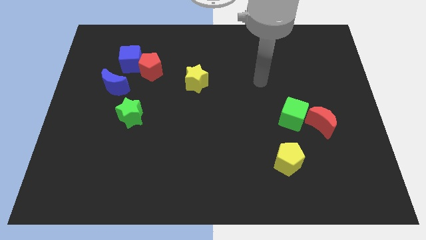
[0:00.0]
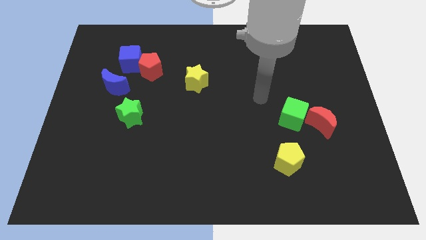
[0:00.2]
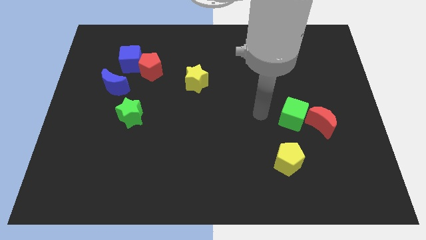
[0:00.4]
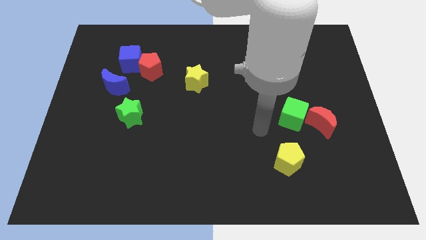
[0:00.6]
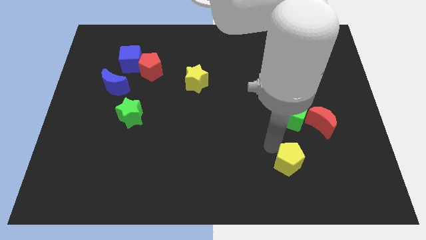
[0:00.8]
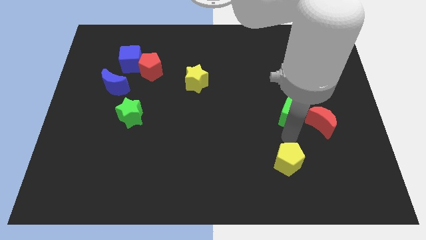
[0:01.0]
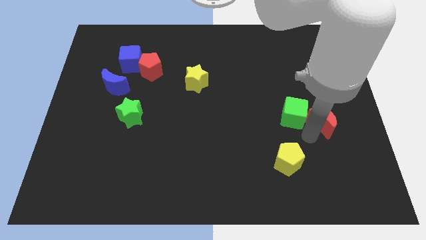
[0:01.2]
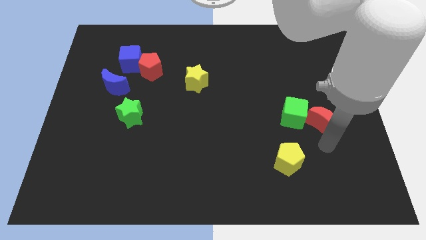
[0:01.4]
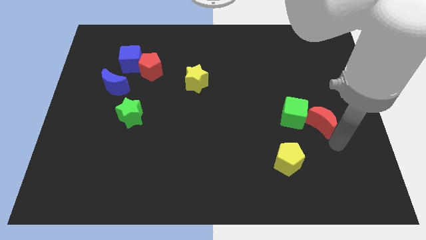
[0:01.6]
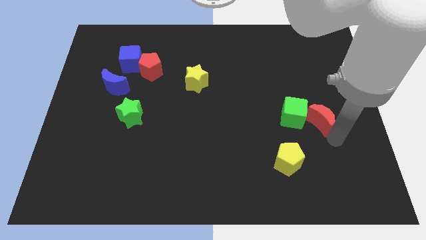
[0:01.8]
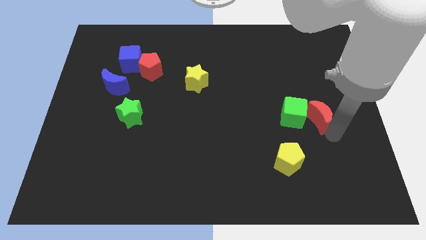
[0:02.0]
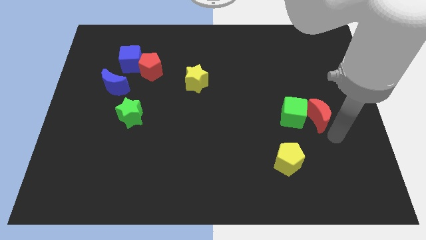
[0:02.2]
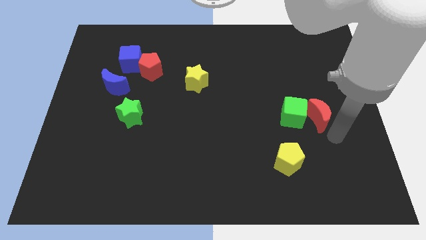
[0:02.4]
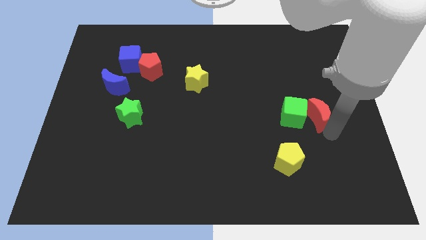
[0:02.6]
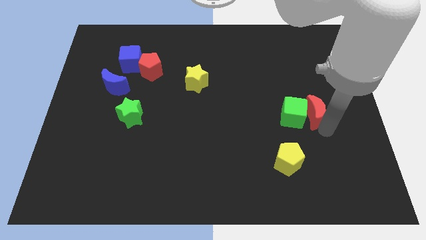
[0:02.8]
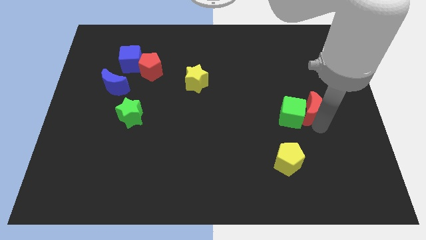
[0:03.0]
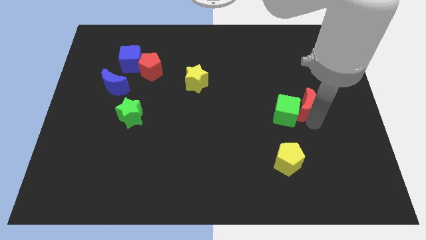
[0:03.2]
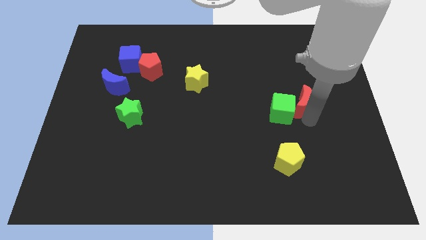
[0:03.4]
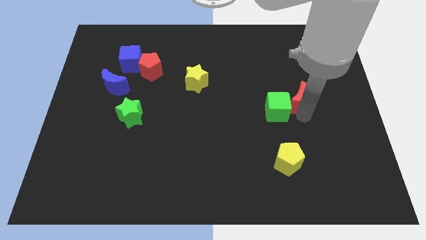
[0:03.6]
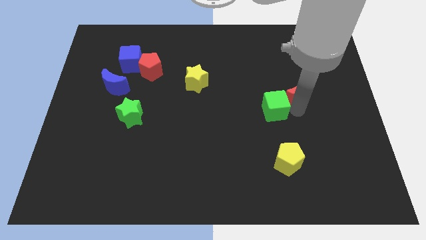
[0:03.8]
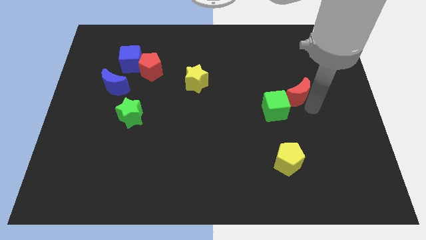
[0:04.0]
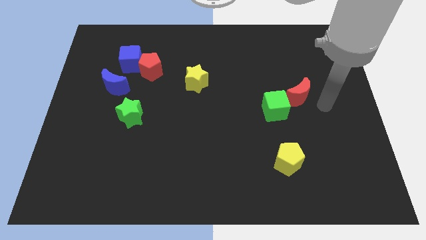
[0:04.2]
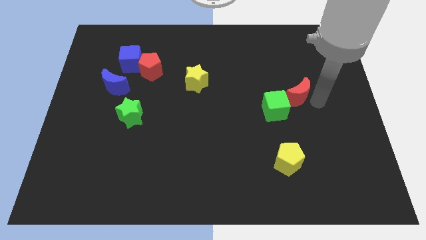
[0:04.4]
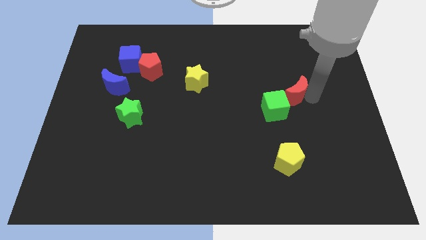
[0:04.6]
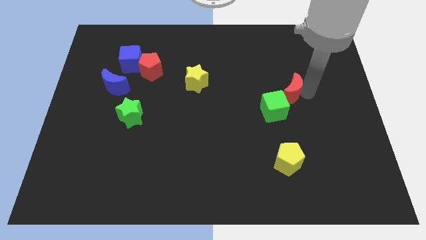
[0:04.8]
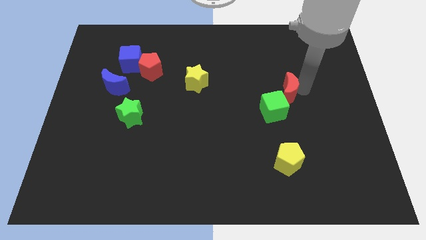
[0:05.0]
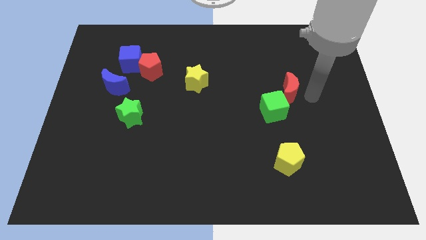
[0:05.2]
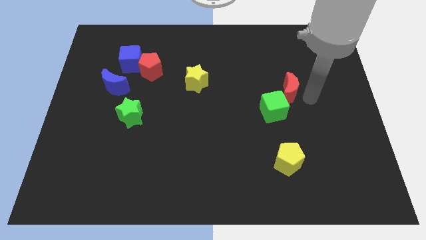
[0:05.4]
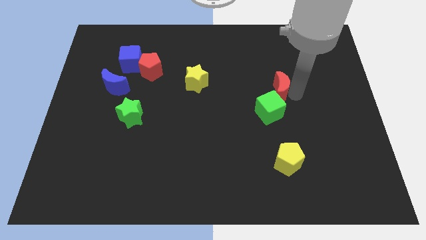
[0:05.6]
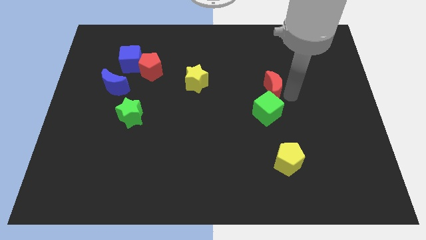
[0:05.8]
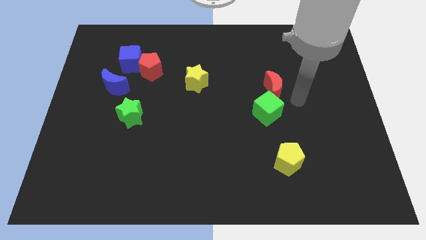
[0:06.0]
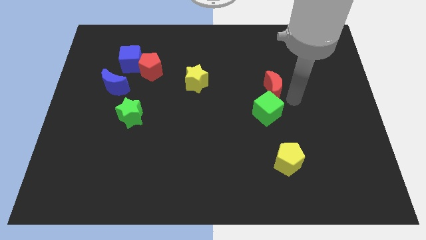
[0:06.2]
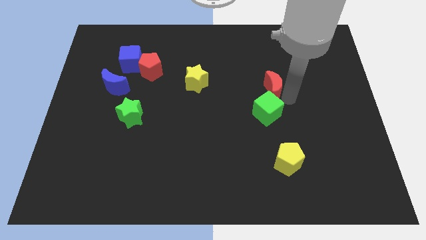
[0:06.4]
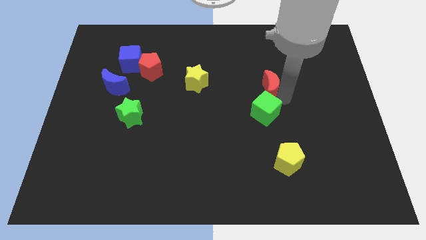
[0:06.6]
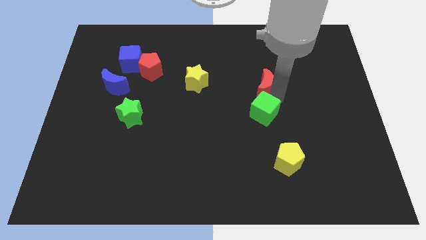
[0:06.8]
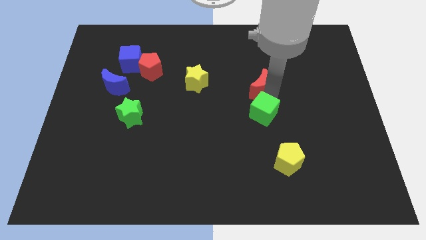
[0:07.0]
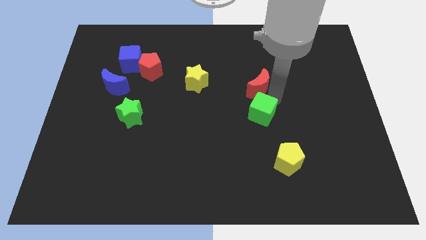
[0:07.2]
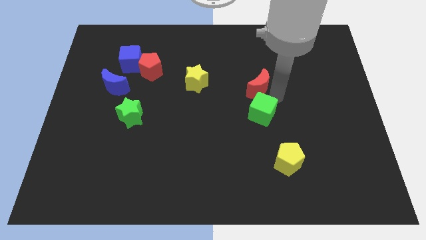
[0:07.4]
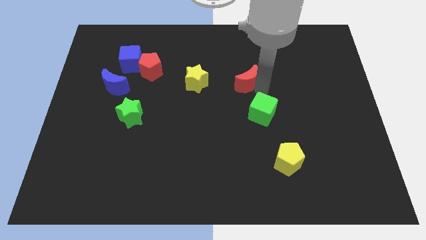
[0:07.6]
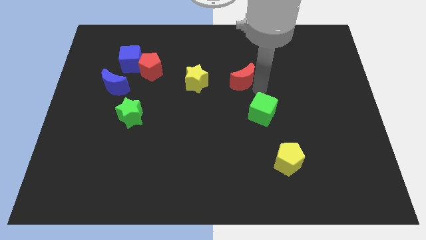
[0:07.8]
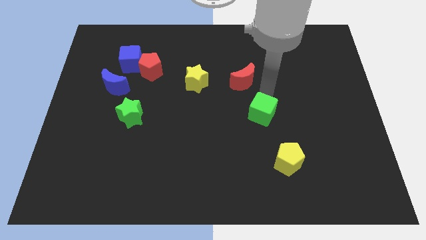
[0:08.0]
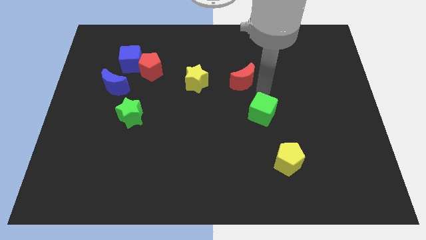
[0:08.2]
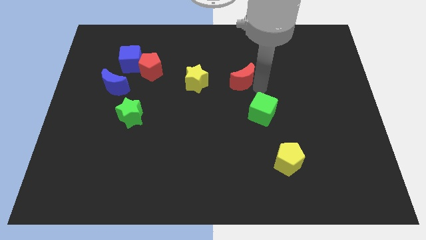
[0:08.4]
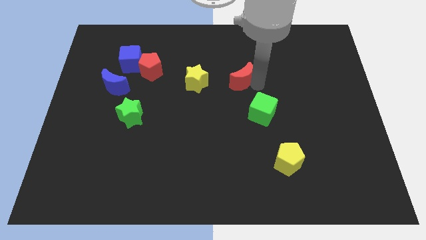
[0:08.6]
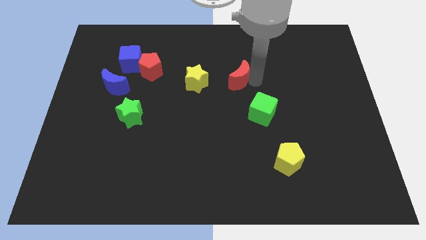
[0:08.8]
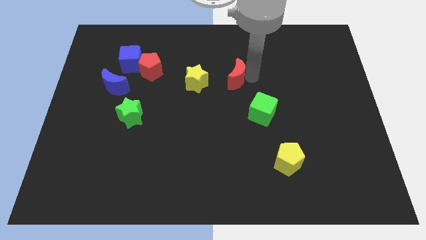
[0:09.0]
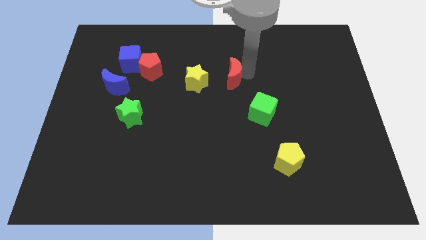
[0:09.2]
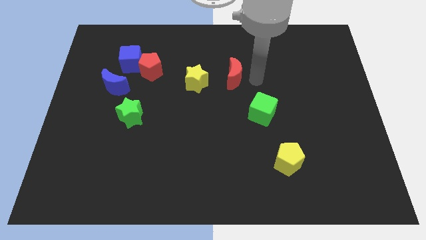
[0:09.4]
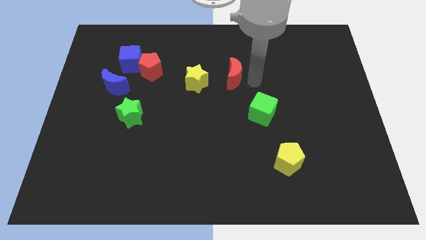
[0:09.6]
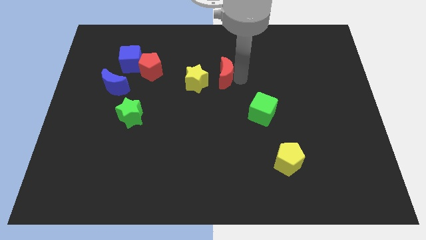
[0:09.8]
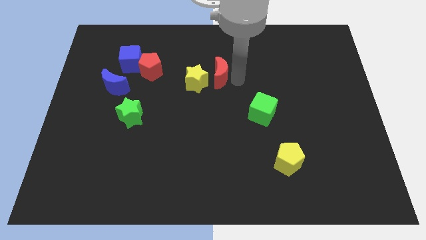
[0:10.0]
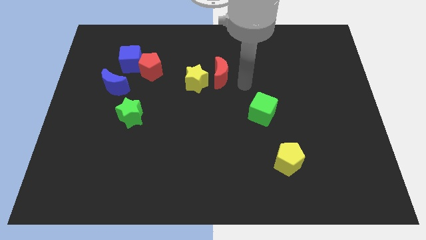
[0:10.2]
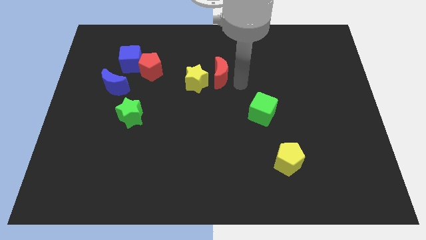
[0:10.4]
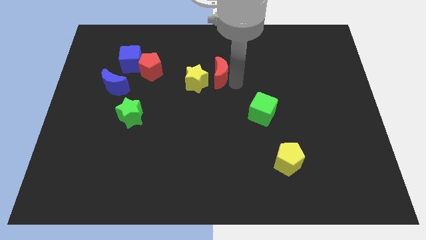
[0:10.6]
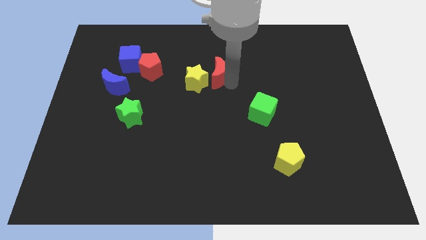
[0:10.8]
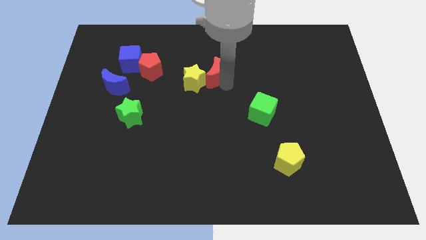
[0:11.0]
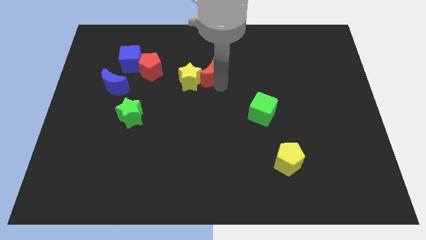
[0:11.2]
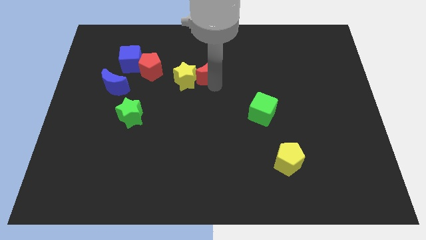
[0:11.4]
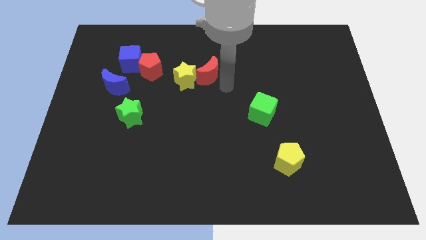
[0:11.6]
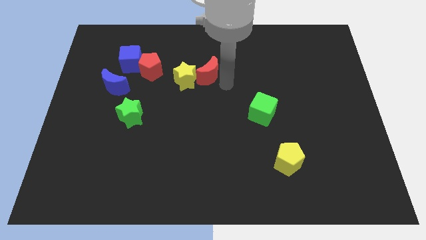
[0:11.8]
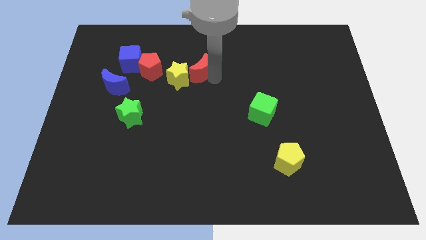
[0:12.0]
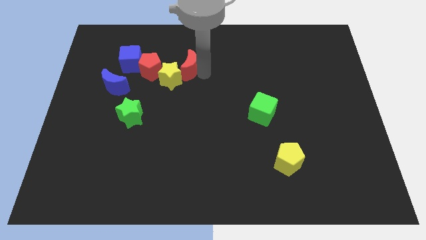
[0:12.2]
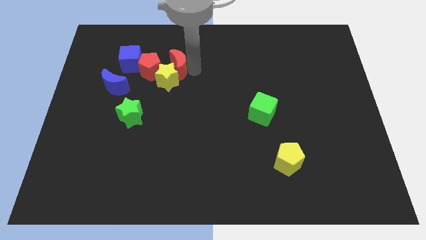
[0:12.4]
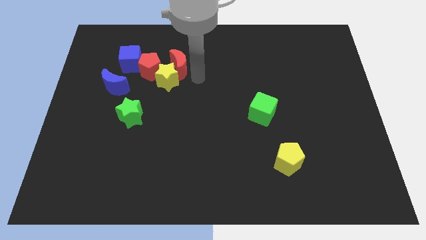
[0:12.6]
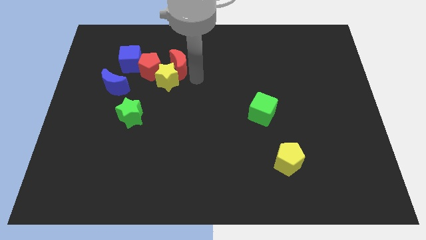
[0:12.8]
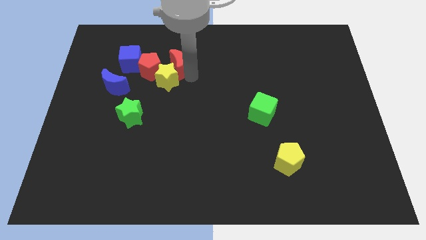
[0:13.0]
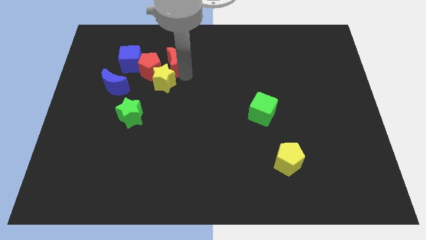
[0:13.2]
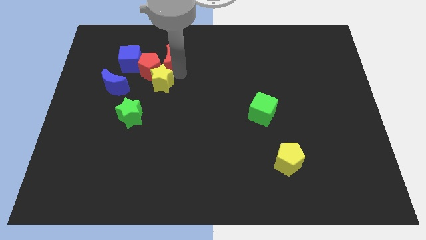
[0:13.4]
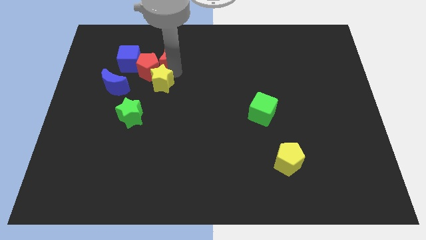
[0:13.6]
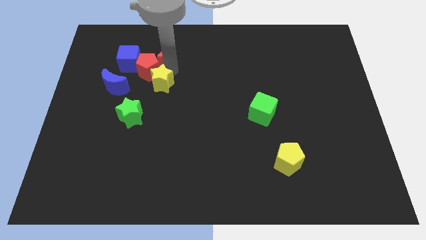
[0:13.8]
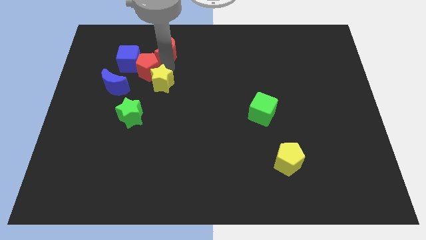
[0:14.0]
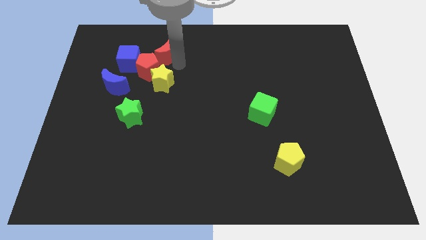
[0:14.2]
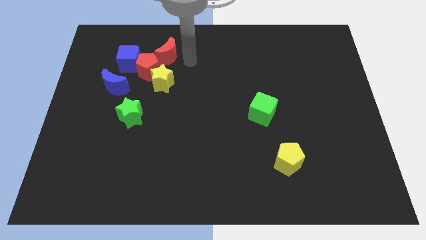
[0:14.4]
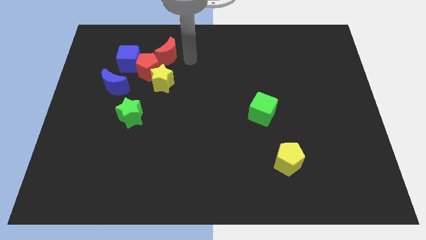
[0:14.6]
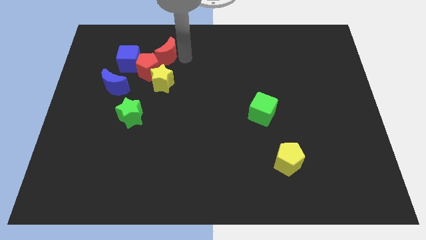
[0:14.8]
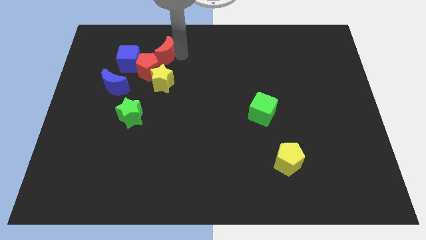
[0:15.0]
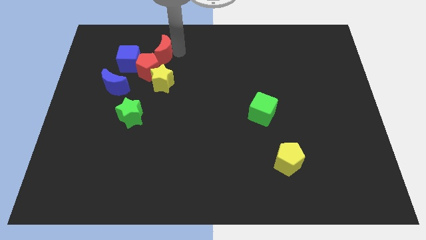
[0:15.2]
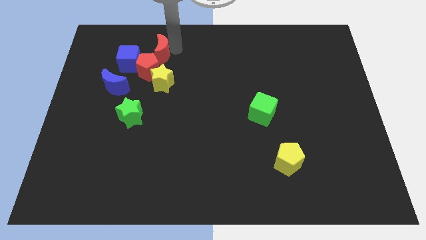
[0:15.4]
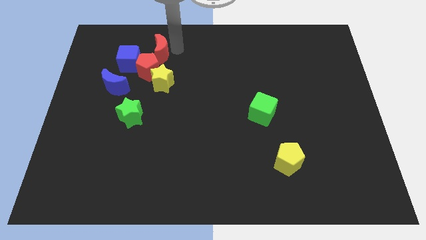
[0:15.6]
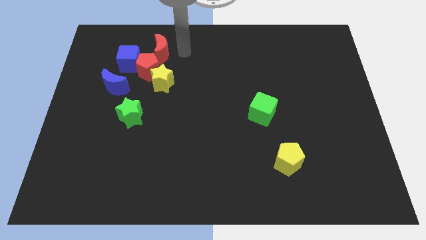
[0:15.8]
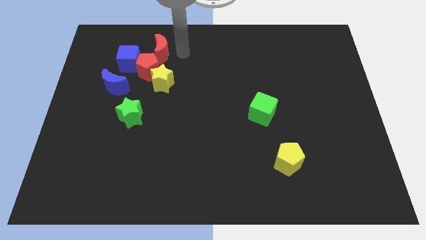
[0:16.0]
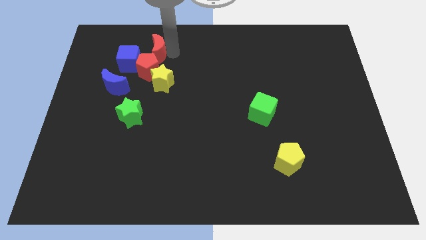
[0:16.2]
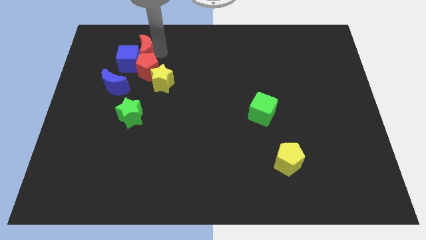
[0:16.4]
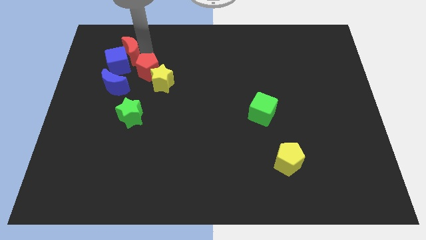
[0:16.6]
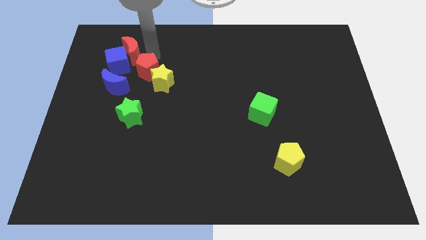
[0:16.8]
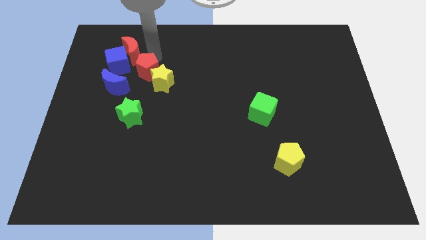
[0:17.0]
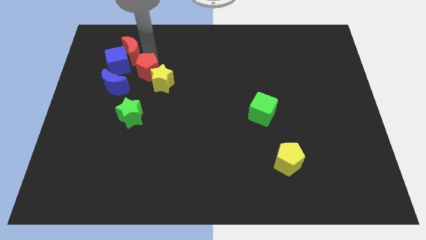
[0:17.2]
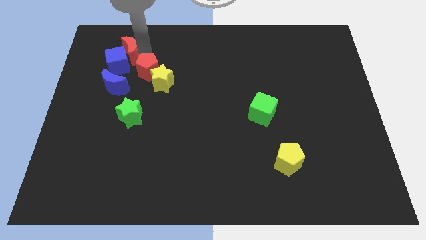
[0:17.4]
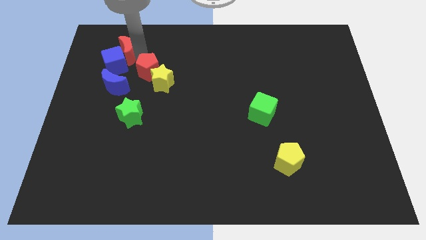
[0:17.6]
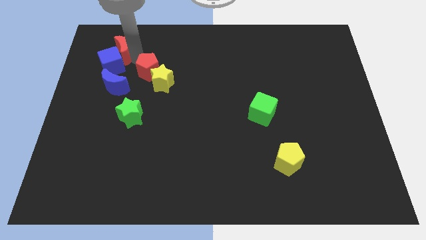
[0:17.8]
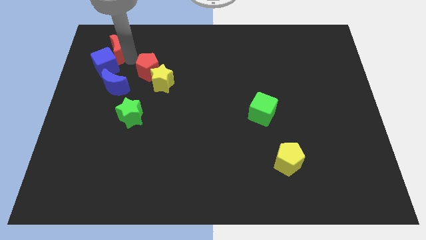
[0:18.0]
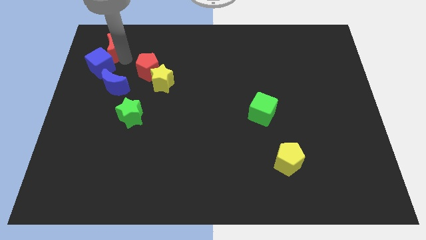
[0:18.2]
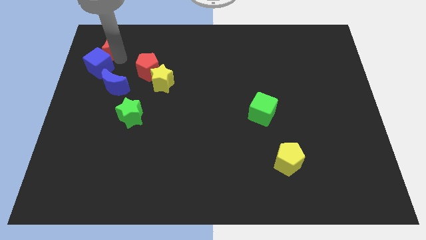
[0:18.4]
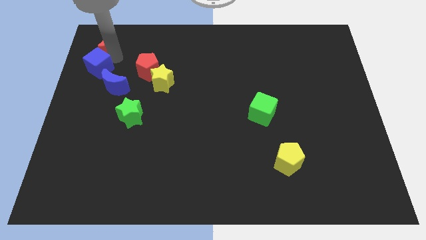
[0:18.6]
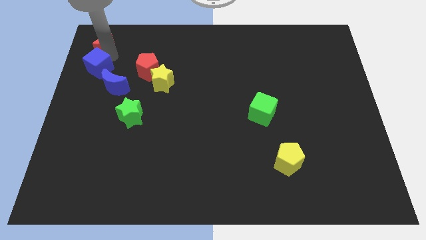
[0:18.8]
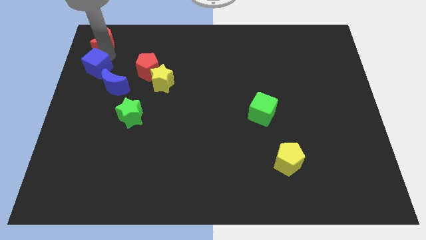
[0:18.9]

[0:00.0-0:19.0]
move the red moon to the upper left corner
